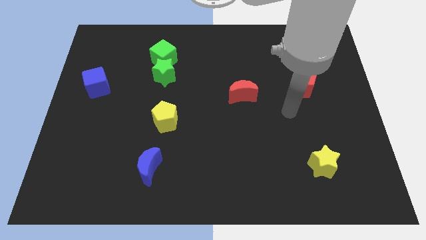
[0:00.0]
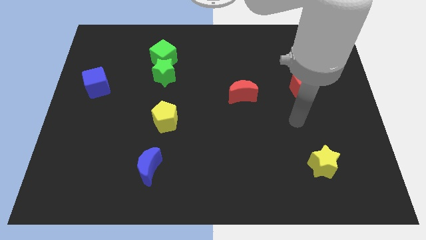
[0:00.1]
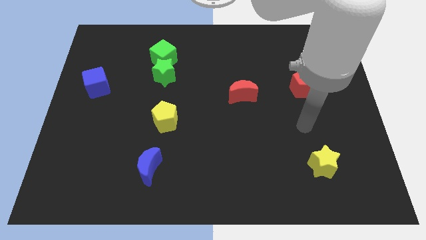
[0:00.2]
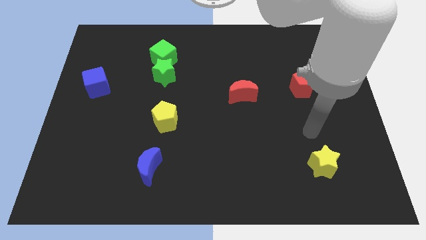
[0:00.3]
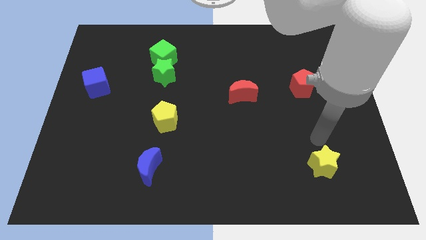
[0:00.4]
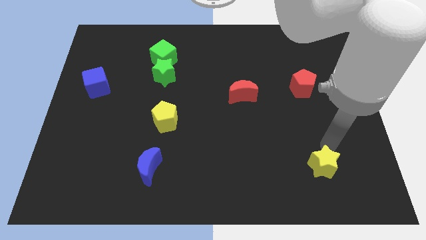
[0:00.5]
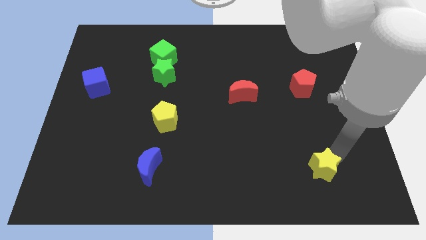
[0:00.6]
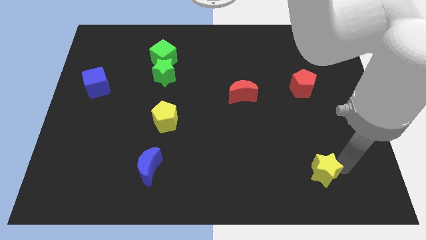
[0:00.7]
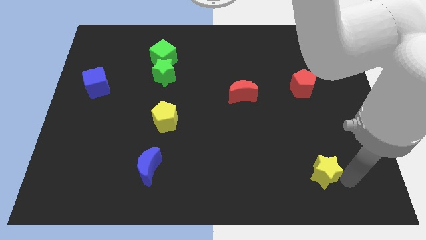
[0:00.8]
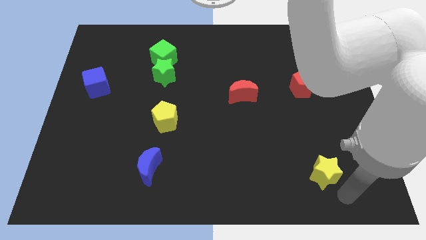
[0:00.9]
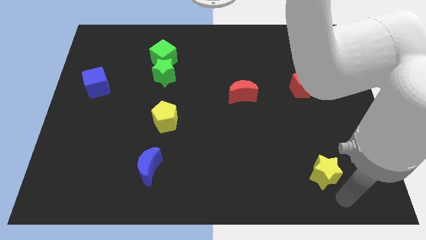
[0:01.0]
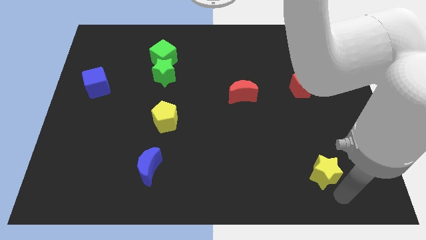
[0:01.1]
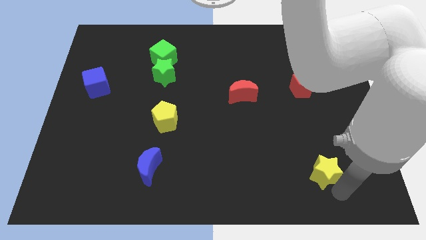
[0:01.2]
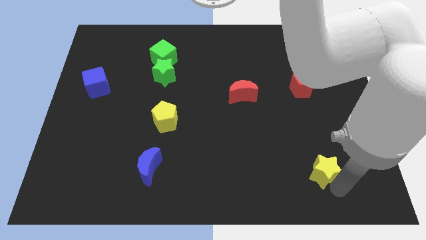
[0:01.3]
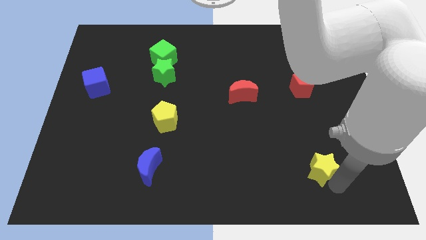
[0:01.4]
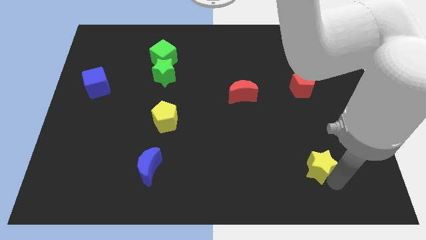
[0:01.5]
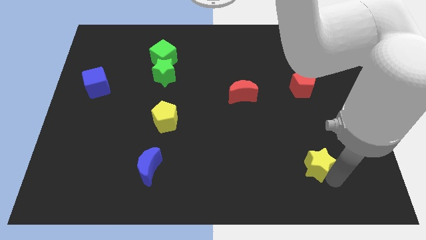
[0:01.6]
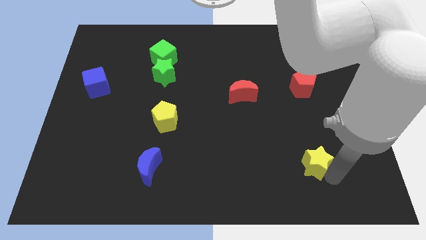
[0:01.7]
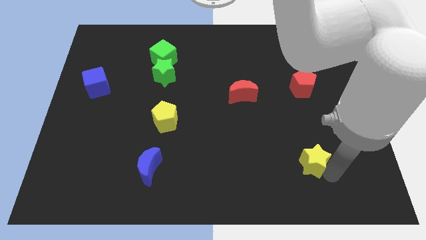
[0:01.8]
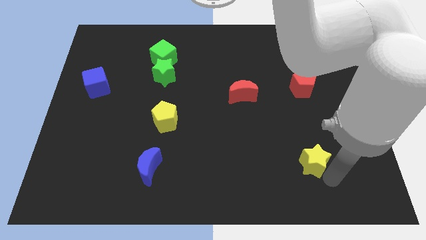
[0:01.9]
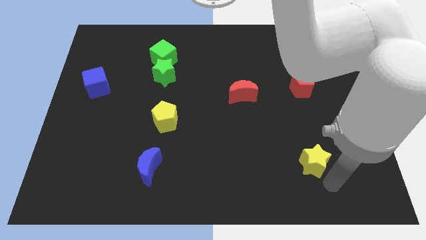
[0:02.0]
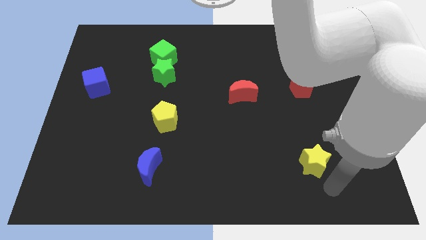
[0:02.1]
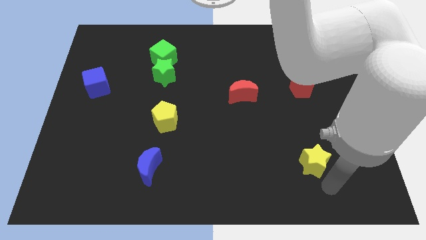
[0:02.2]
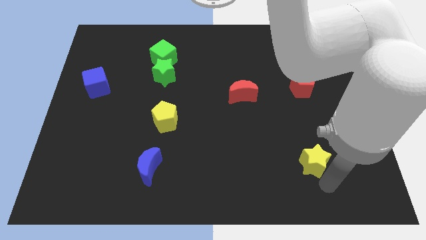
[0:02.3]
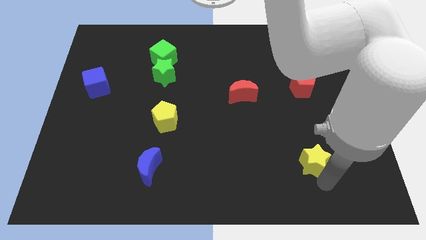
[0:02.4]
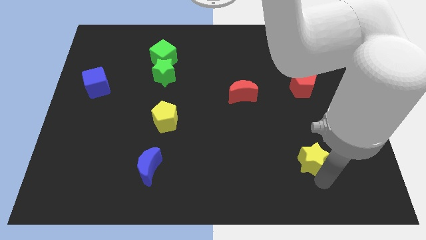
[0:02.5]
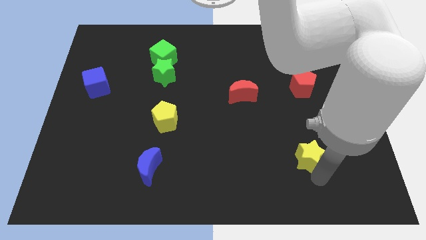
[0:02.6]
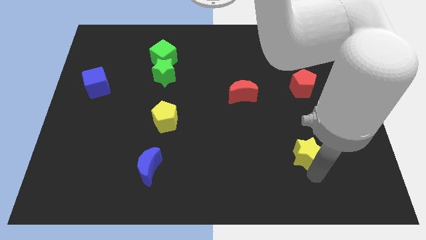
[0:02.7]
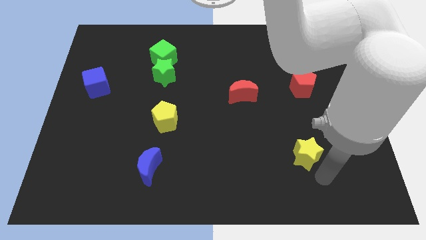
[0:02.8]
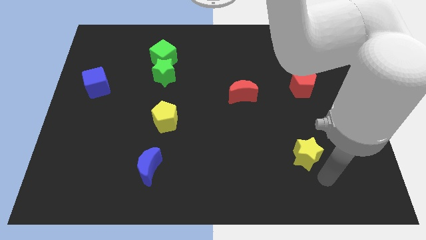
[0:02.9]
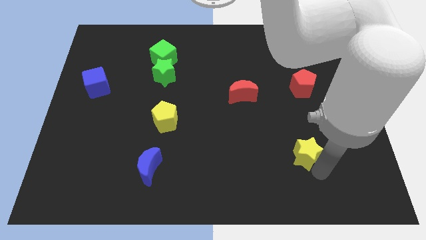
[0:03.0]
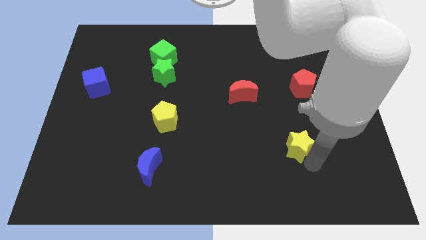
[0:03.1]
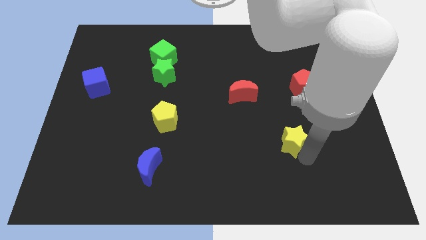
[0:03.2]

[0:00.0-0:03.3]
push the yellow star a little upwards and to the left diagonally

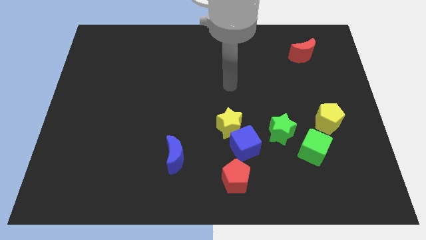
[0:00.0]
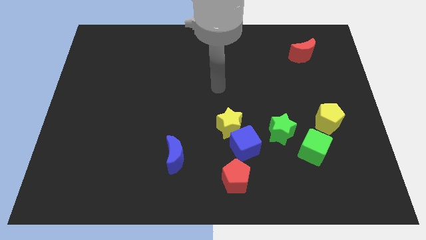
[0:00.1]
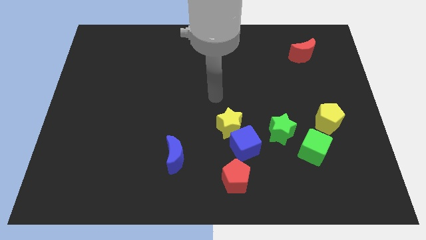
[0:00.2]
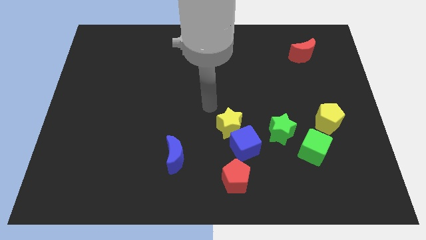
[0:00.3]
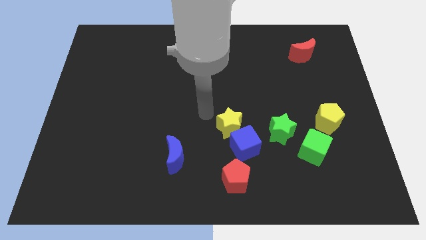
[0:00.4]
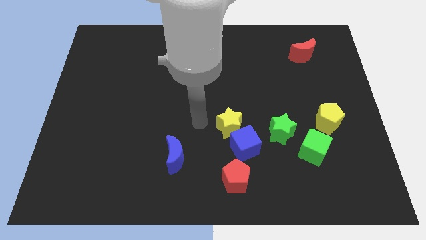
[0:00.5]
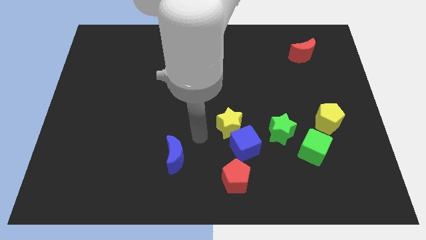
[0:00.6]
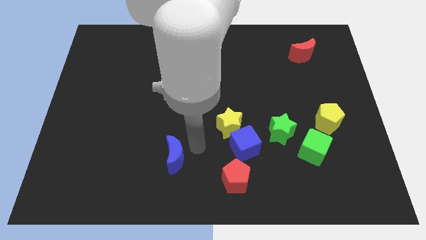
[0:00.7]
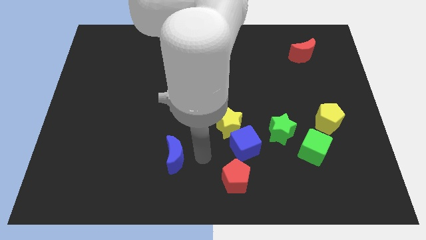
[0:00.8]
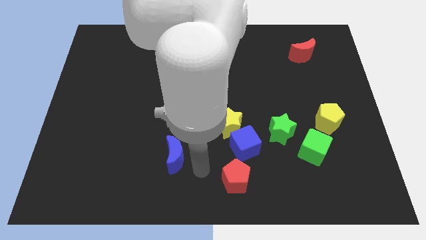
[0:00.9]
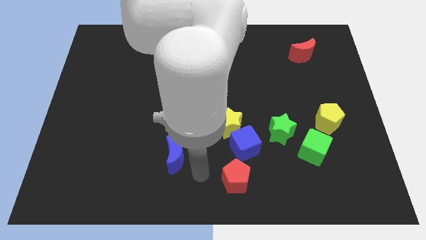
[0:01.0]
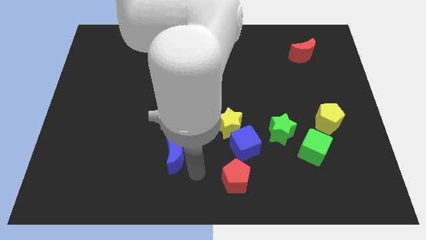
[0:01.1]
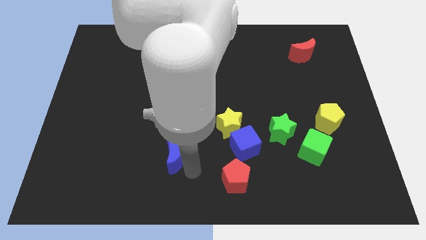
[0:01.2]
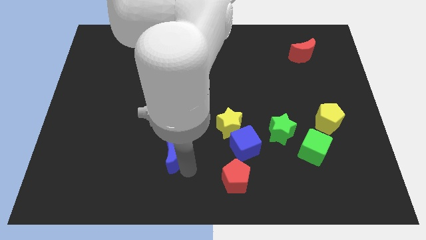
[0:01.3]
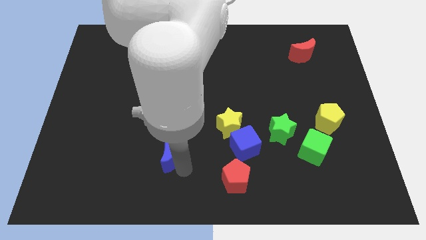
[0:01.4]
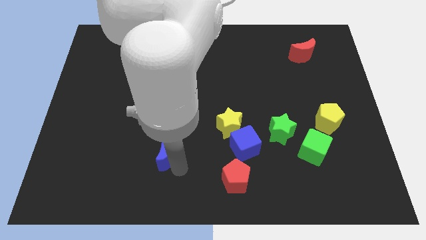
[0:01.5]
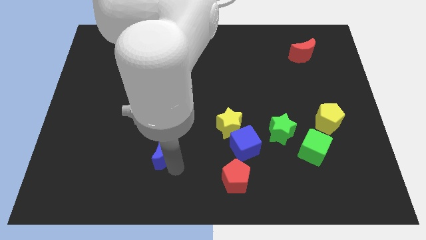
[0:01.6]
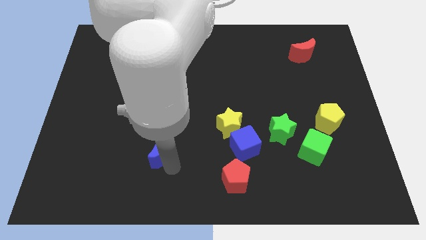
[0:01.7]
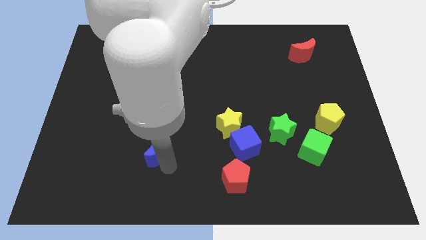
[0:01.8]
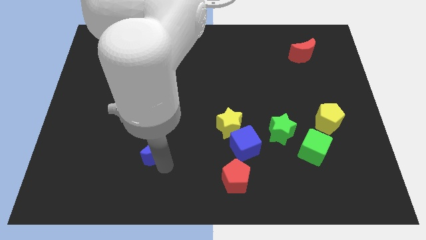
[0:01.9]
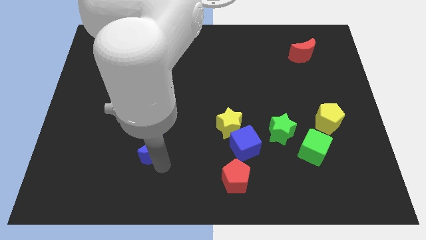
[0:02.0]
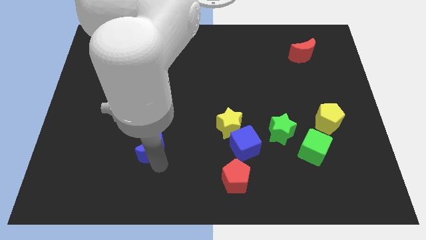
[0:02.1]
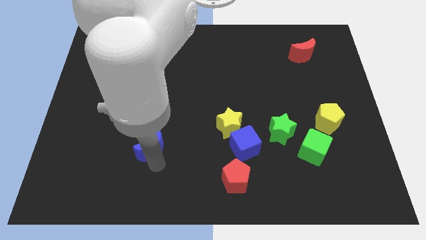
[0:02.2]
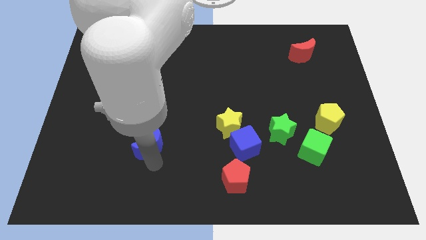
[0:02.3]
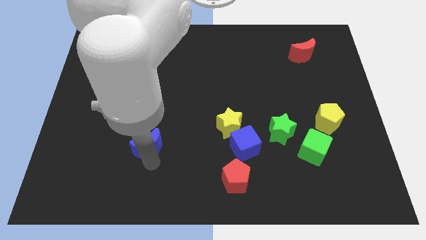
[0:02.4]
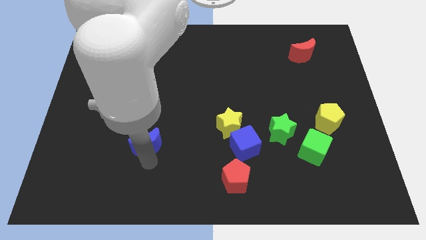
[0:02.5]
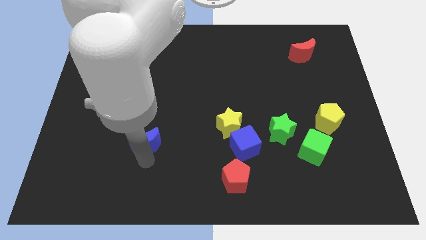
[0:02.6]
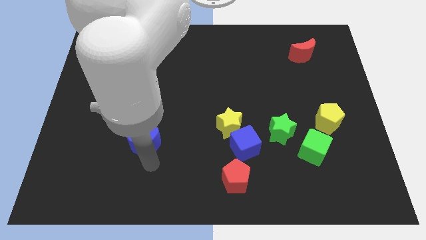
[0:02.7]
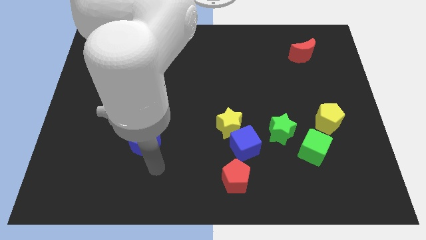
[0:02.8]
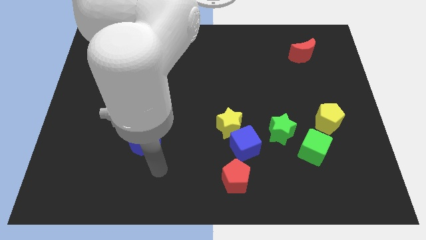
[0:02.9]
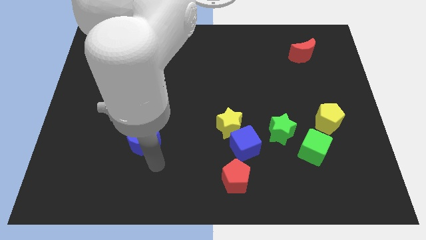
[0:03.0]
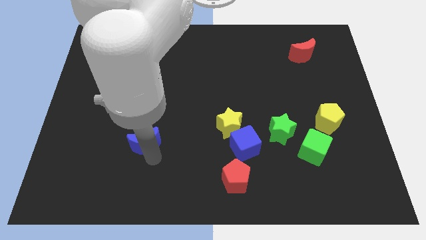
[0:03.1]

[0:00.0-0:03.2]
slide the blue moon diagonally up and left slightly

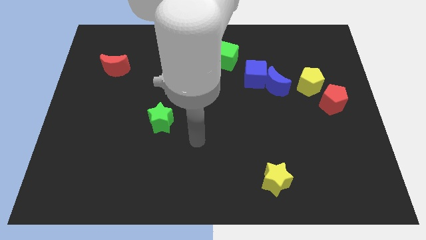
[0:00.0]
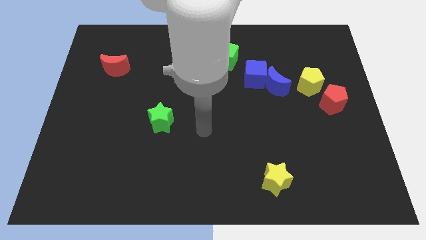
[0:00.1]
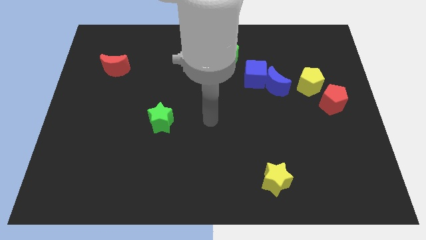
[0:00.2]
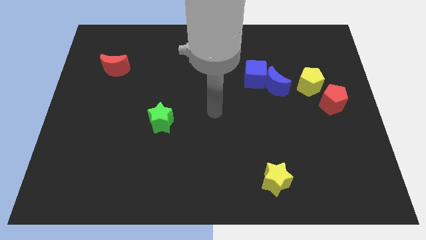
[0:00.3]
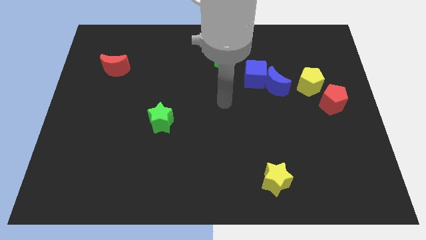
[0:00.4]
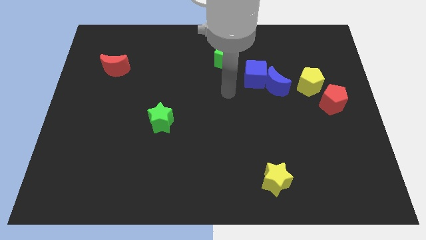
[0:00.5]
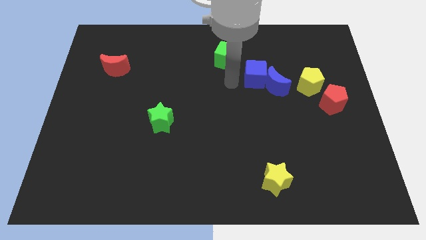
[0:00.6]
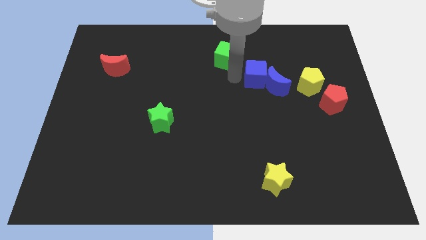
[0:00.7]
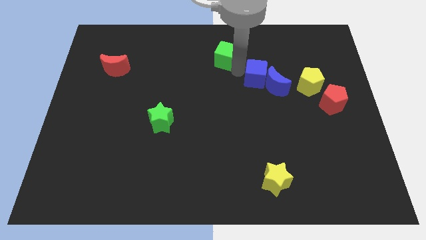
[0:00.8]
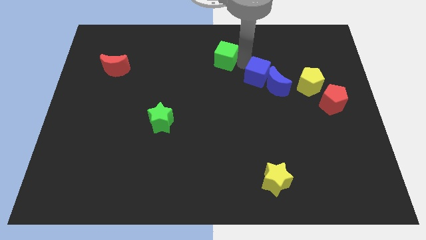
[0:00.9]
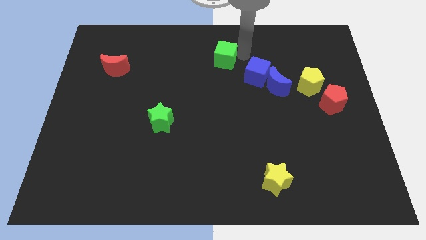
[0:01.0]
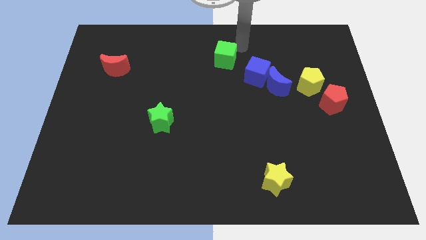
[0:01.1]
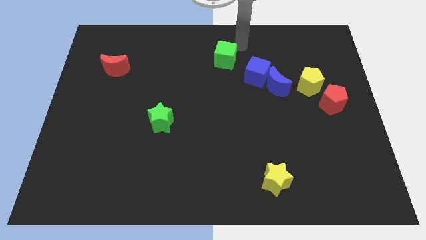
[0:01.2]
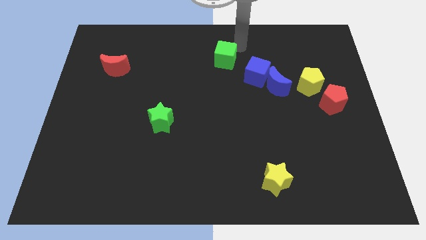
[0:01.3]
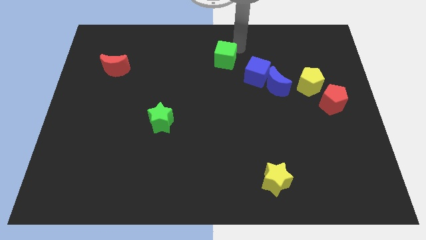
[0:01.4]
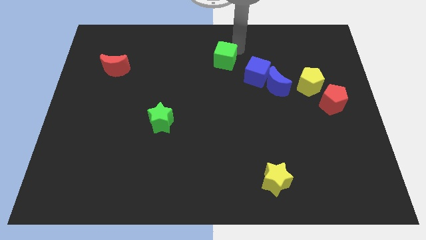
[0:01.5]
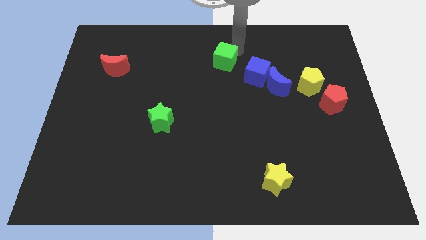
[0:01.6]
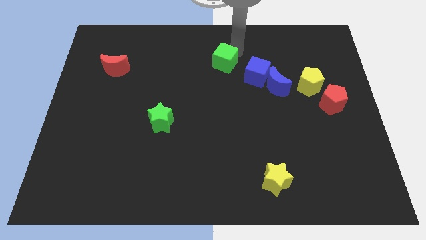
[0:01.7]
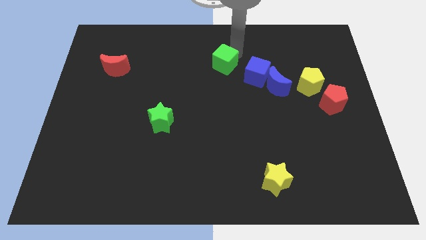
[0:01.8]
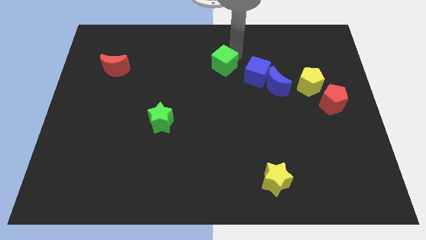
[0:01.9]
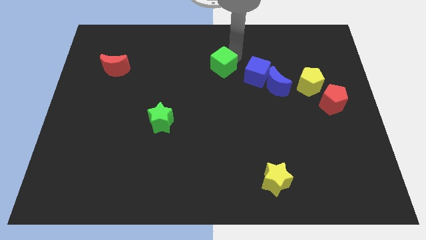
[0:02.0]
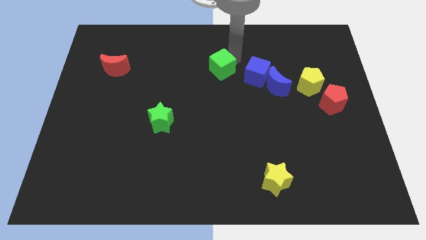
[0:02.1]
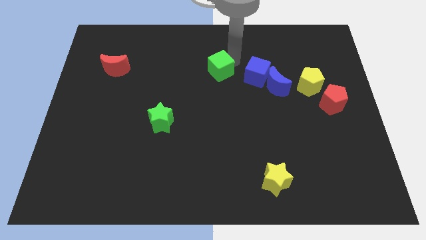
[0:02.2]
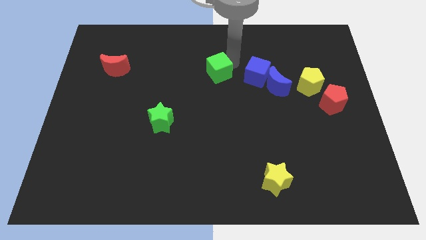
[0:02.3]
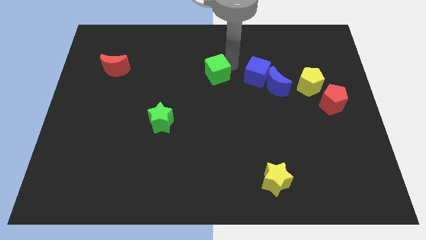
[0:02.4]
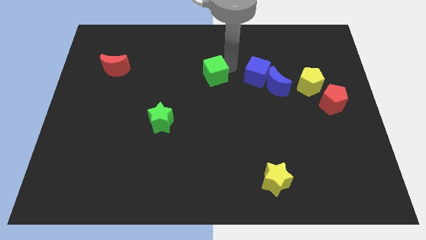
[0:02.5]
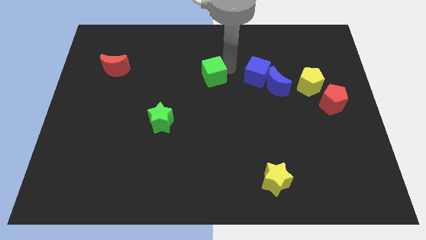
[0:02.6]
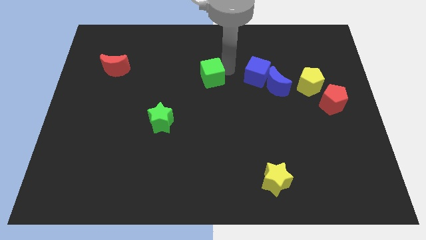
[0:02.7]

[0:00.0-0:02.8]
slightly move the green cube downwards and left diagonally
